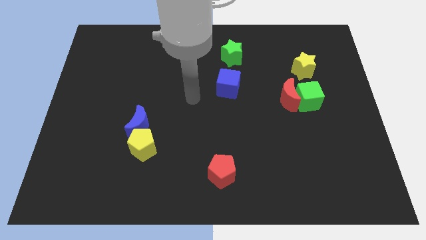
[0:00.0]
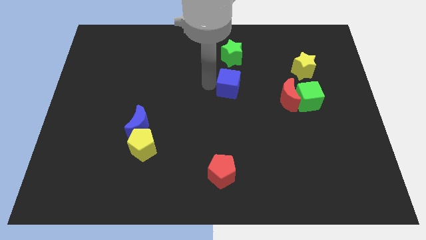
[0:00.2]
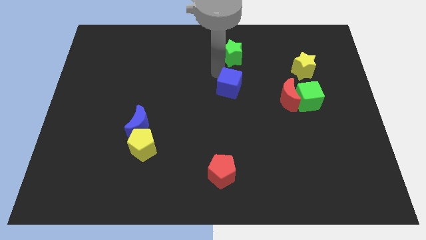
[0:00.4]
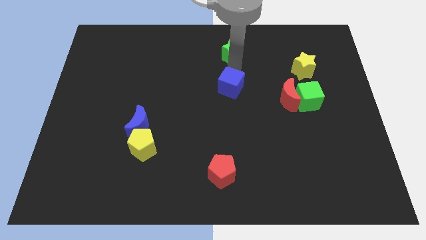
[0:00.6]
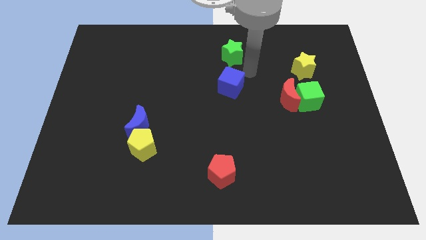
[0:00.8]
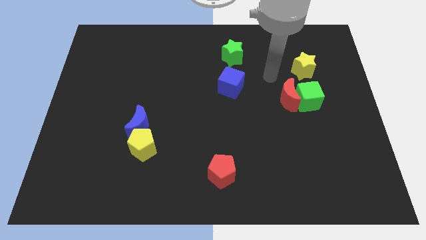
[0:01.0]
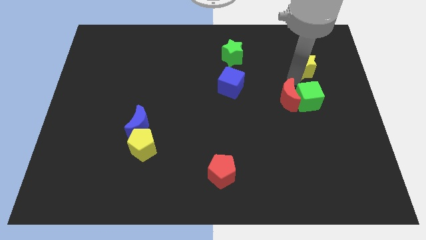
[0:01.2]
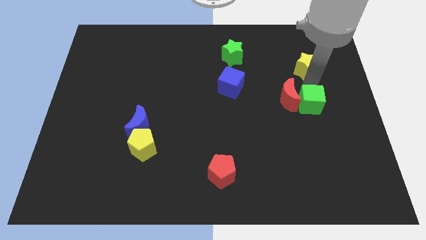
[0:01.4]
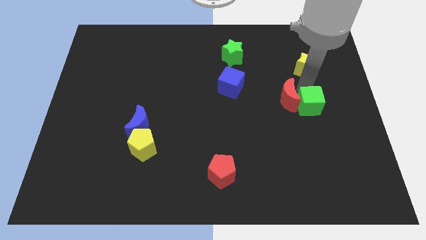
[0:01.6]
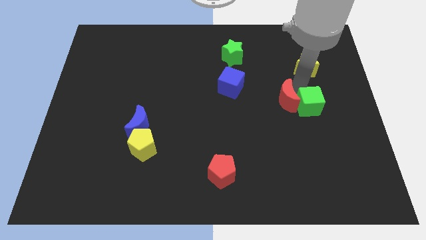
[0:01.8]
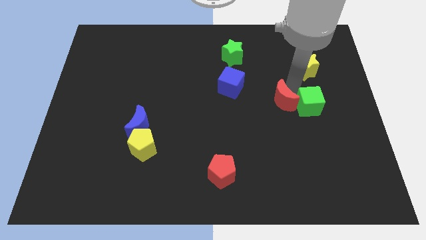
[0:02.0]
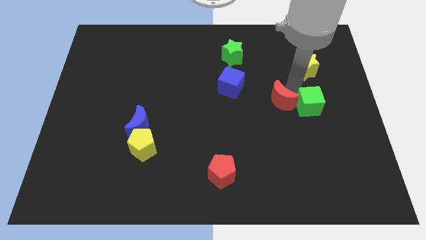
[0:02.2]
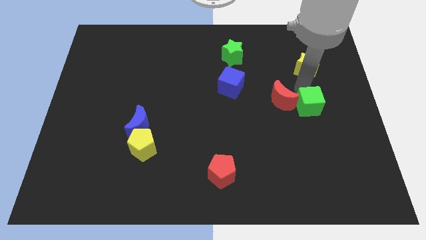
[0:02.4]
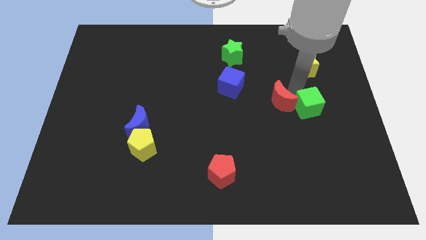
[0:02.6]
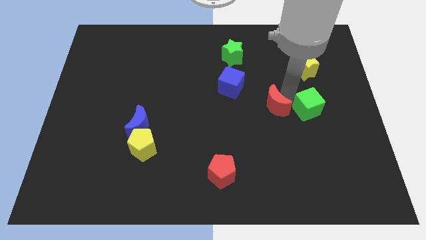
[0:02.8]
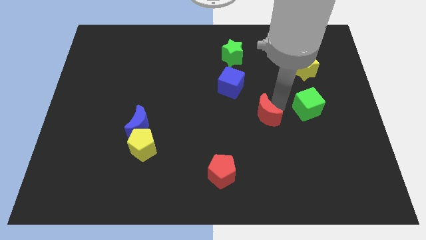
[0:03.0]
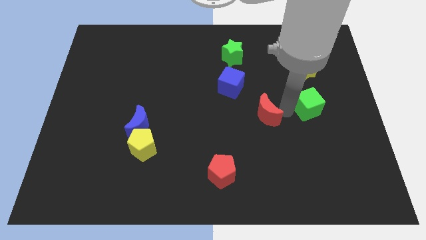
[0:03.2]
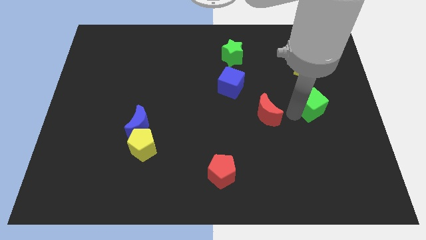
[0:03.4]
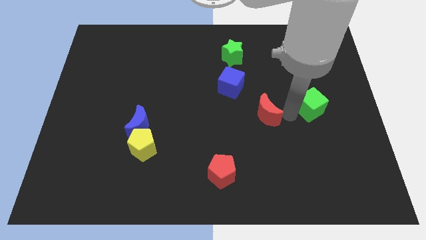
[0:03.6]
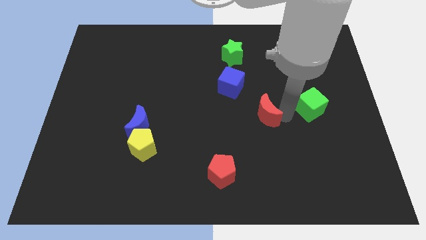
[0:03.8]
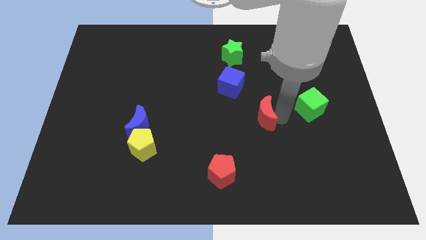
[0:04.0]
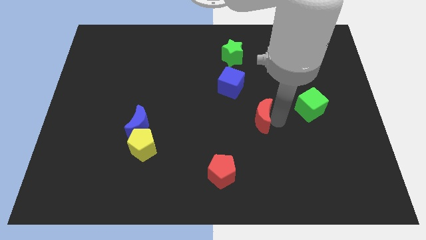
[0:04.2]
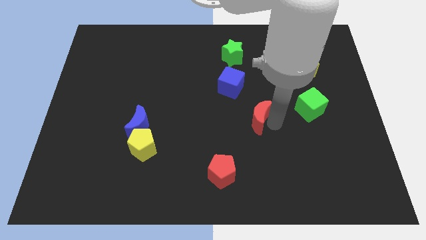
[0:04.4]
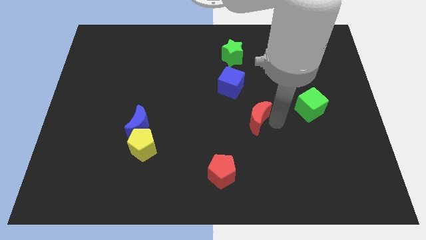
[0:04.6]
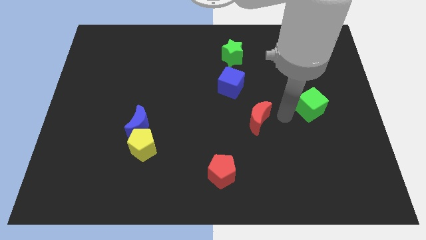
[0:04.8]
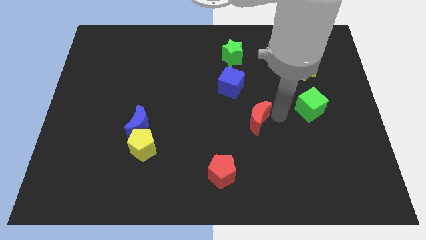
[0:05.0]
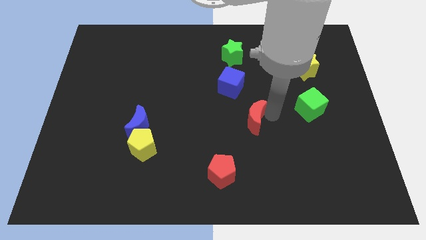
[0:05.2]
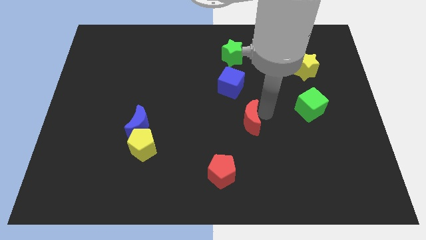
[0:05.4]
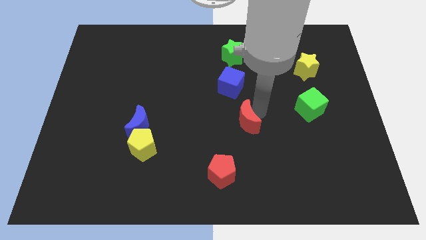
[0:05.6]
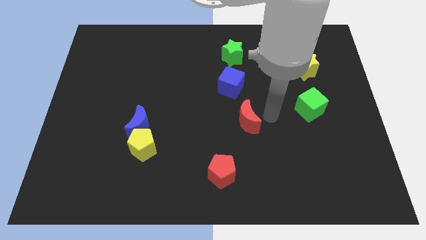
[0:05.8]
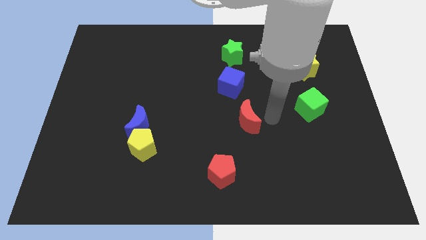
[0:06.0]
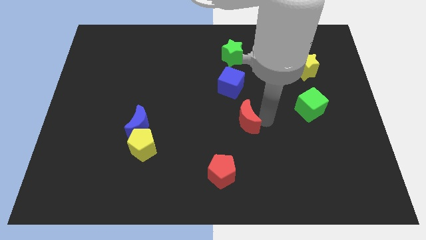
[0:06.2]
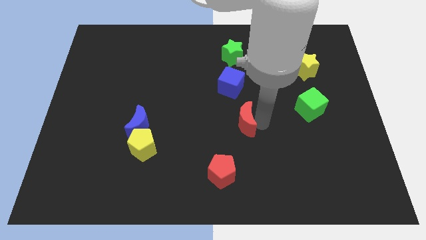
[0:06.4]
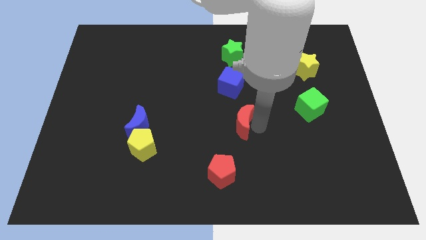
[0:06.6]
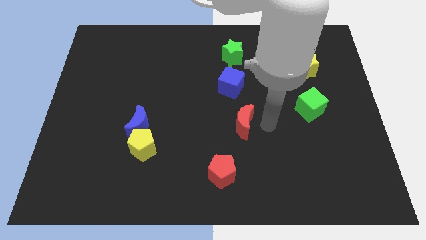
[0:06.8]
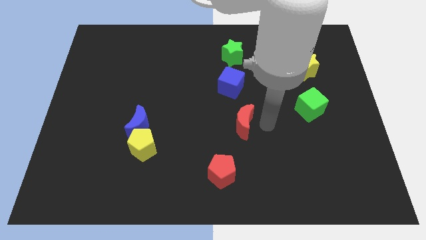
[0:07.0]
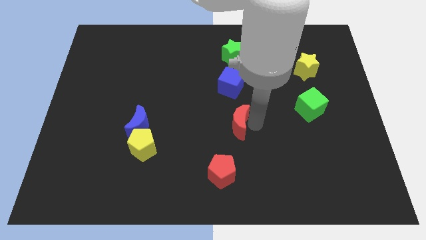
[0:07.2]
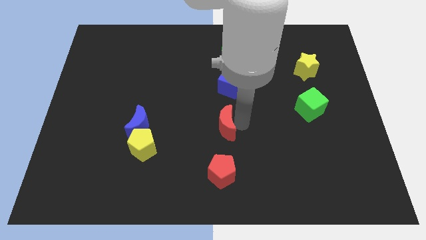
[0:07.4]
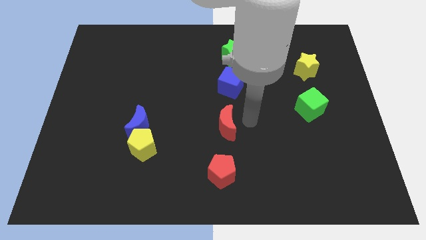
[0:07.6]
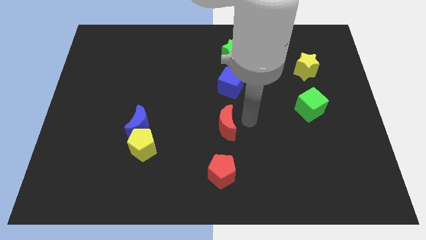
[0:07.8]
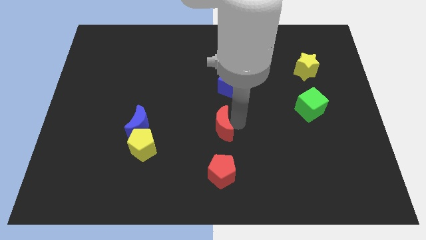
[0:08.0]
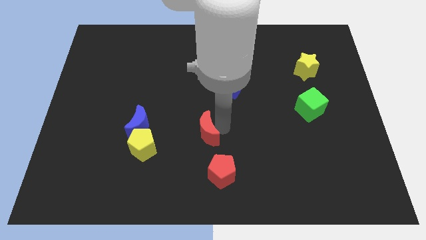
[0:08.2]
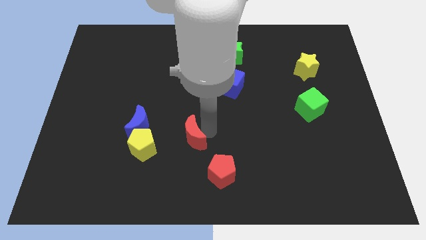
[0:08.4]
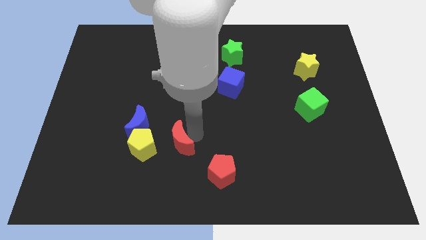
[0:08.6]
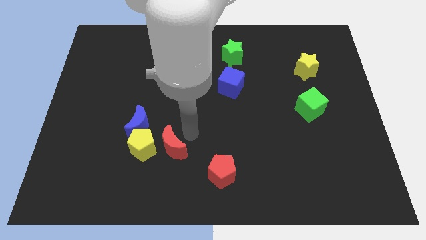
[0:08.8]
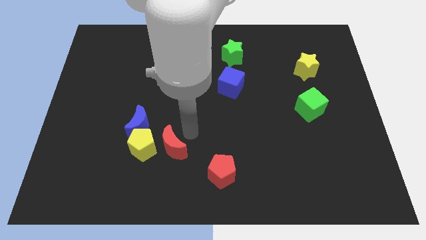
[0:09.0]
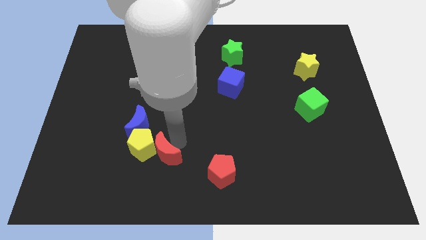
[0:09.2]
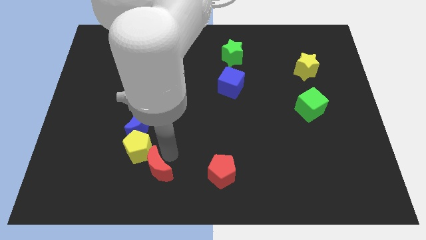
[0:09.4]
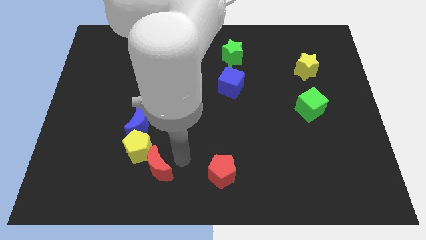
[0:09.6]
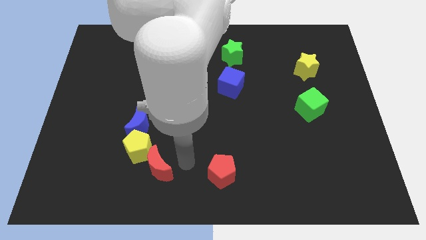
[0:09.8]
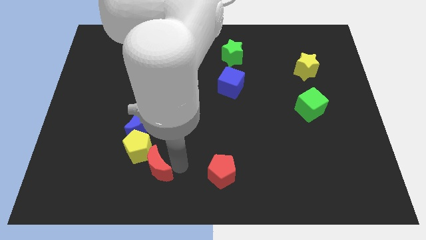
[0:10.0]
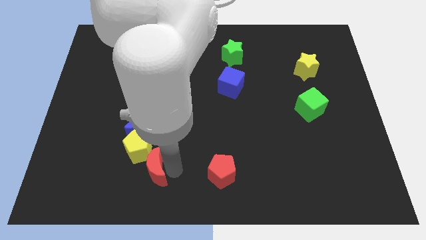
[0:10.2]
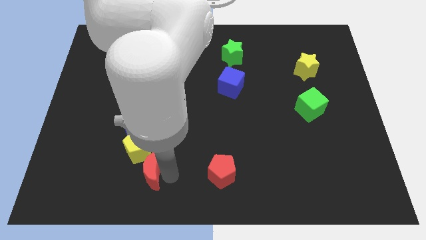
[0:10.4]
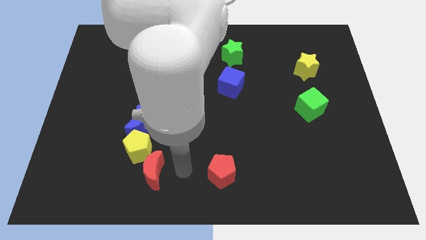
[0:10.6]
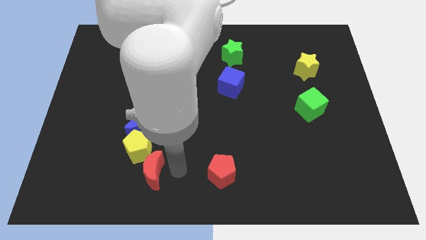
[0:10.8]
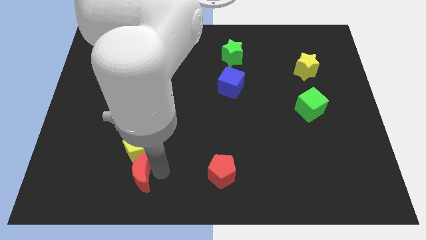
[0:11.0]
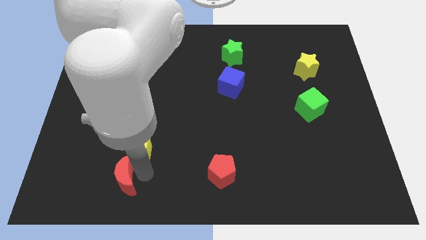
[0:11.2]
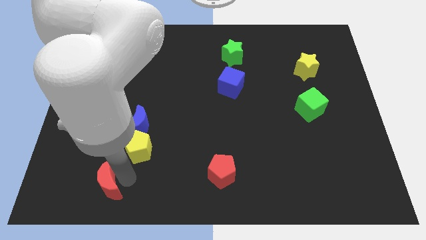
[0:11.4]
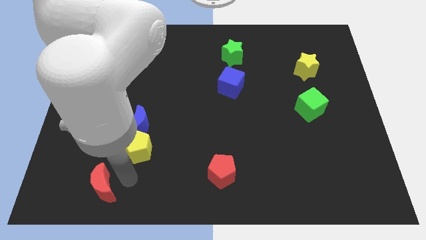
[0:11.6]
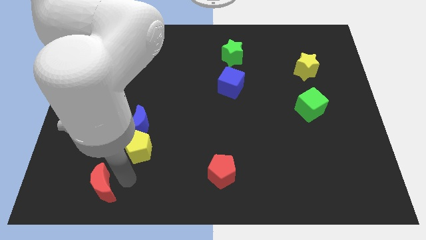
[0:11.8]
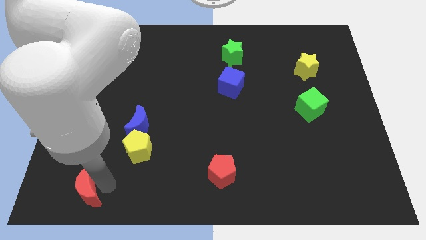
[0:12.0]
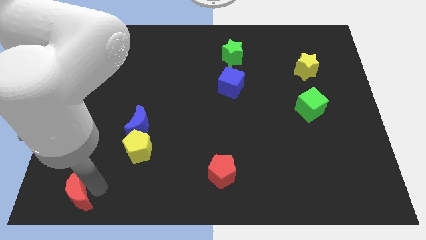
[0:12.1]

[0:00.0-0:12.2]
slide the red moon to the lower left corner
